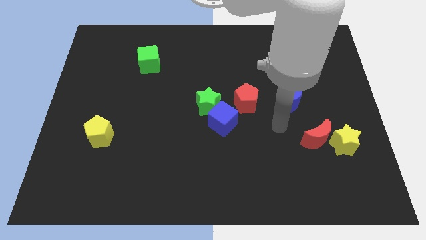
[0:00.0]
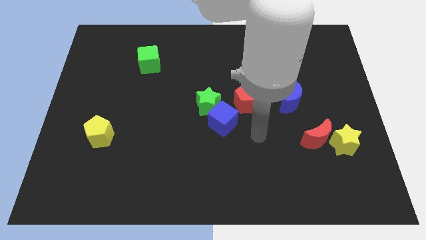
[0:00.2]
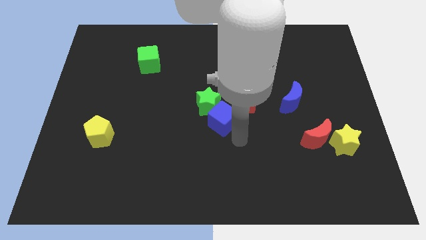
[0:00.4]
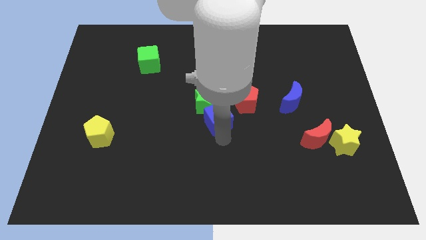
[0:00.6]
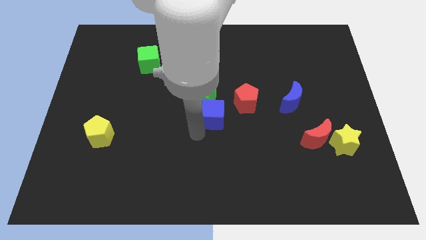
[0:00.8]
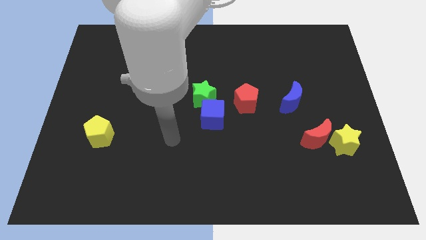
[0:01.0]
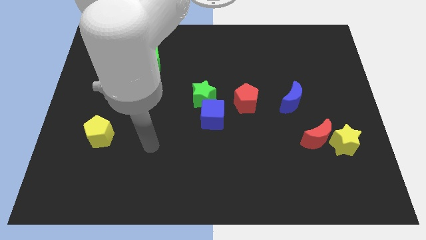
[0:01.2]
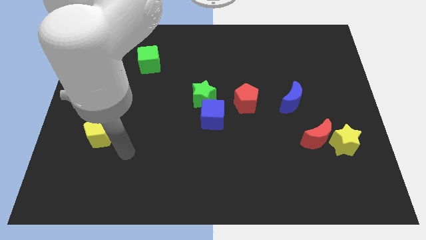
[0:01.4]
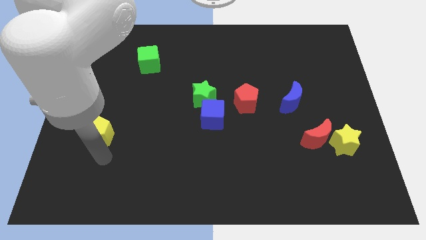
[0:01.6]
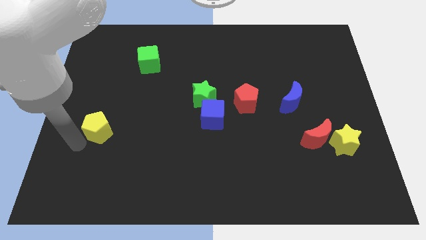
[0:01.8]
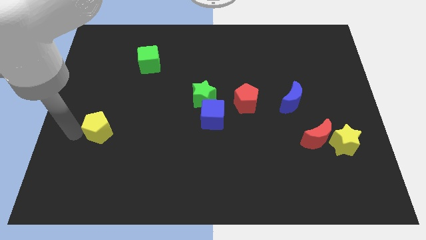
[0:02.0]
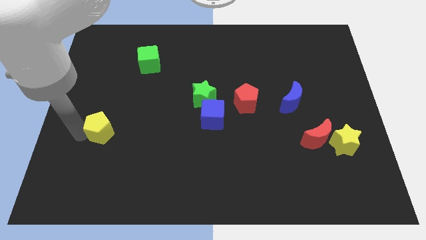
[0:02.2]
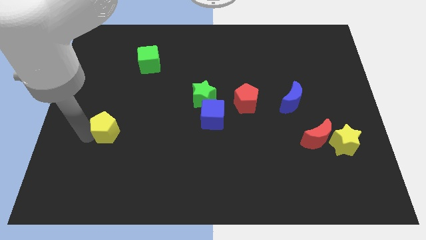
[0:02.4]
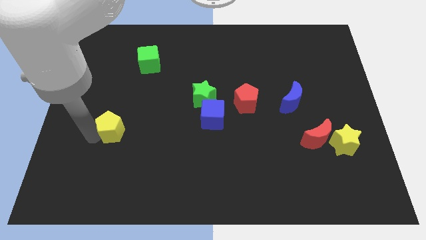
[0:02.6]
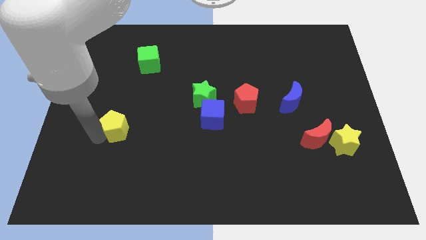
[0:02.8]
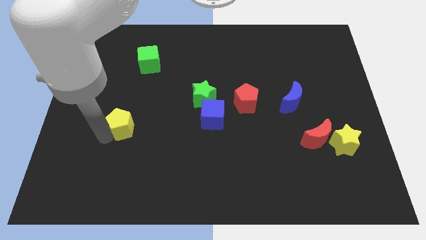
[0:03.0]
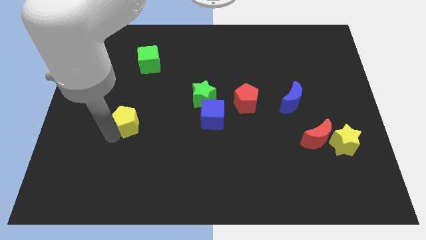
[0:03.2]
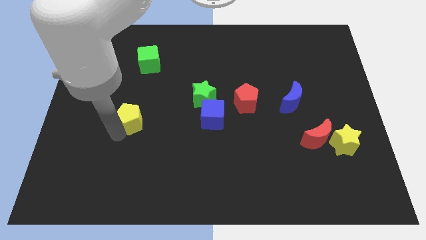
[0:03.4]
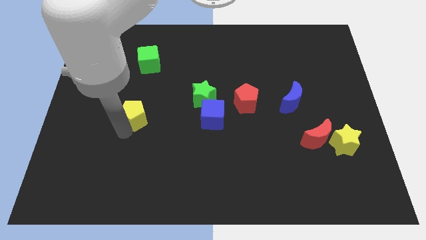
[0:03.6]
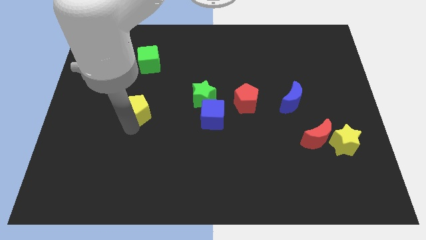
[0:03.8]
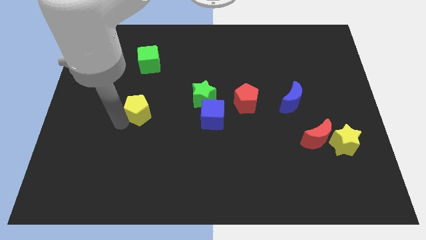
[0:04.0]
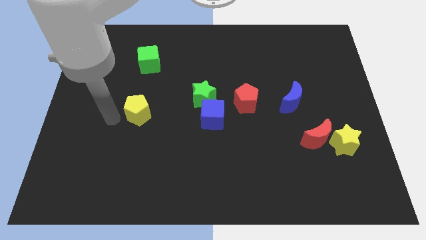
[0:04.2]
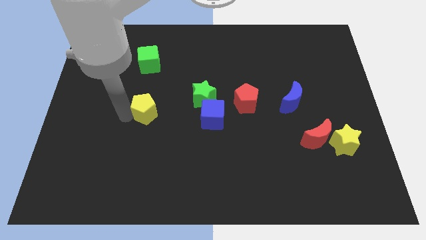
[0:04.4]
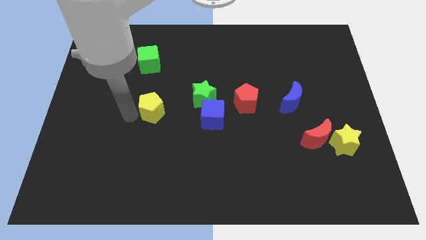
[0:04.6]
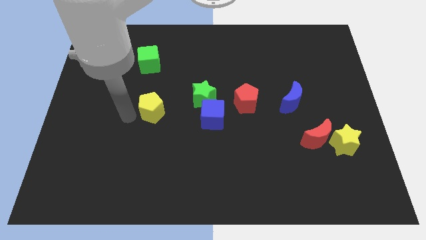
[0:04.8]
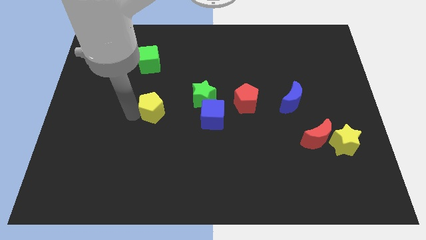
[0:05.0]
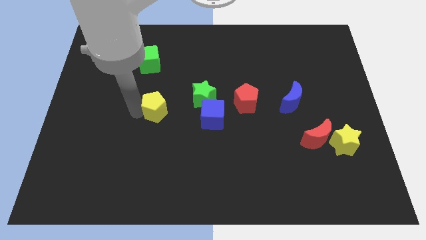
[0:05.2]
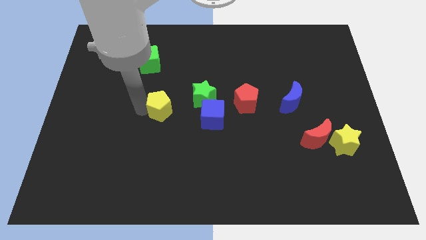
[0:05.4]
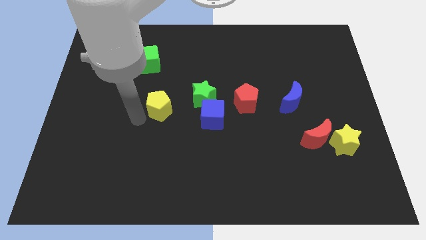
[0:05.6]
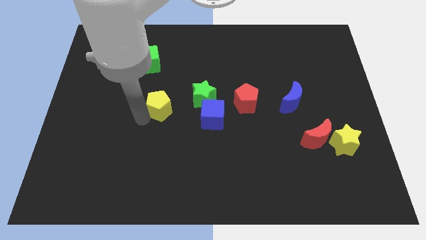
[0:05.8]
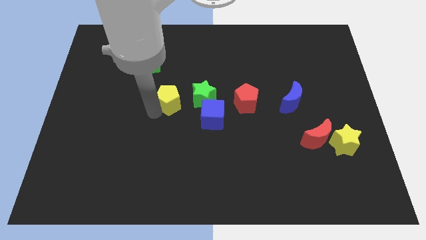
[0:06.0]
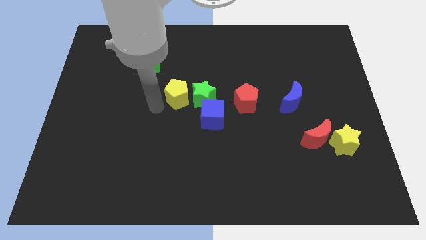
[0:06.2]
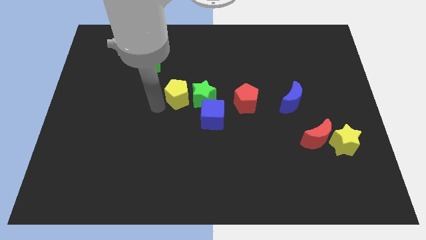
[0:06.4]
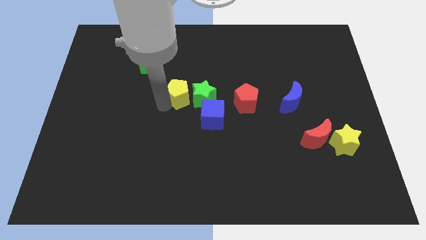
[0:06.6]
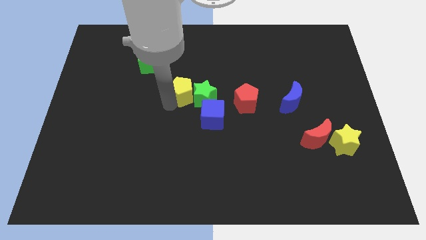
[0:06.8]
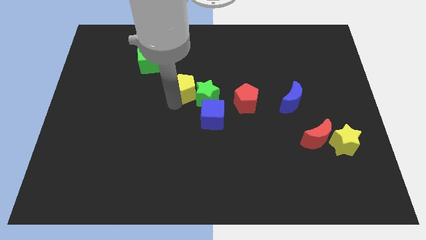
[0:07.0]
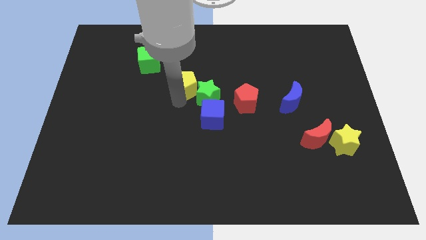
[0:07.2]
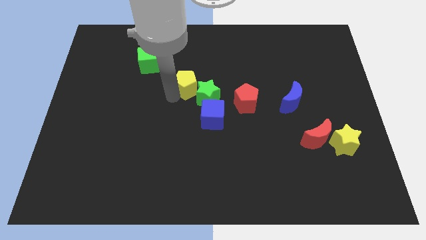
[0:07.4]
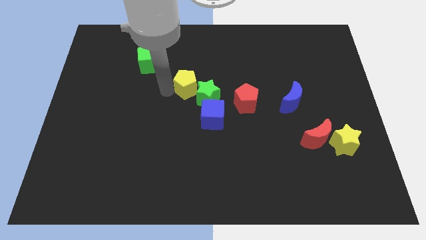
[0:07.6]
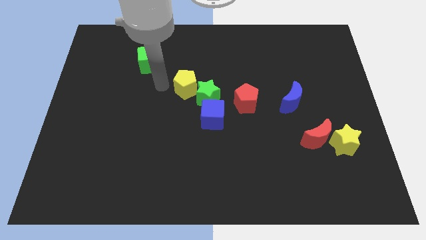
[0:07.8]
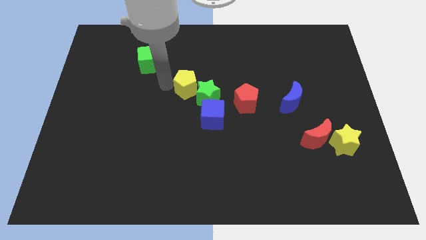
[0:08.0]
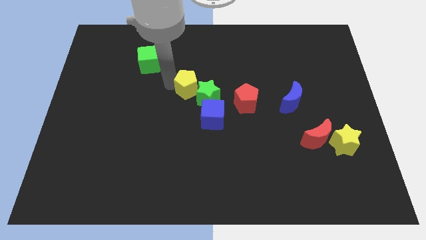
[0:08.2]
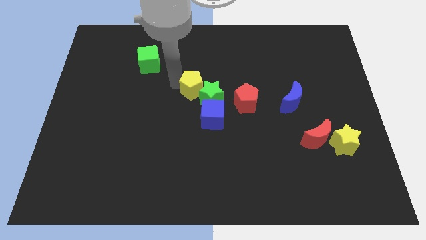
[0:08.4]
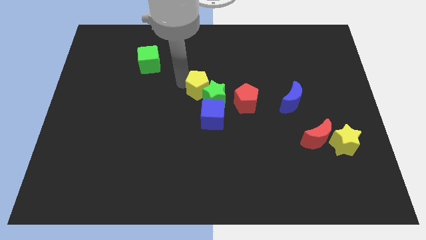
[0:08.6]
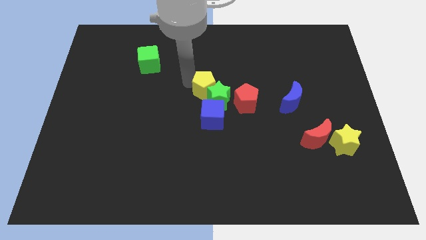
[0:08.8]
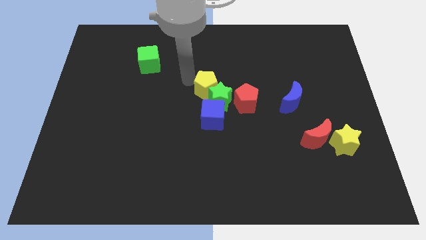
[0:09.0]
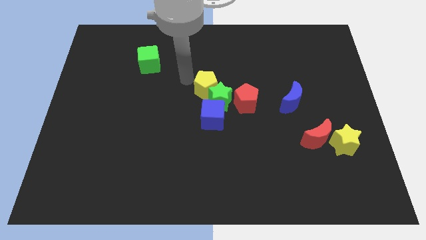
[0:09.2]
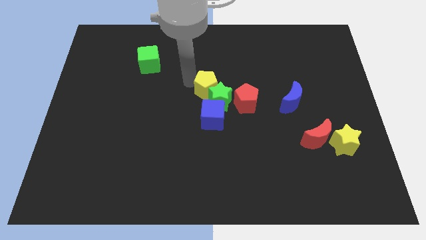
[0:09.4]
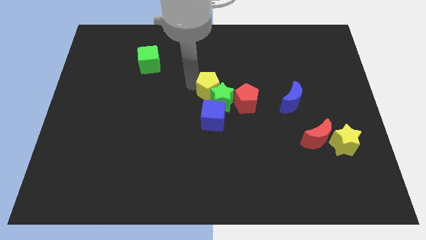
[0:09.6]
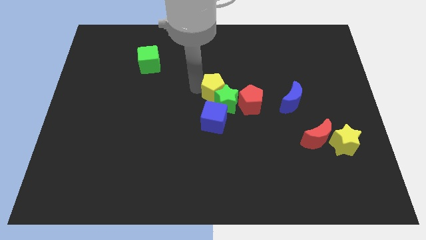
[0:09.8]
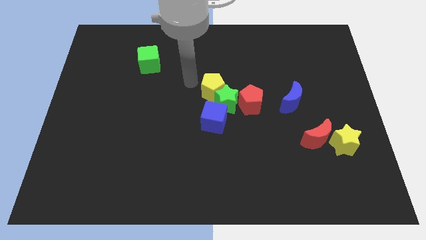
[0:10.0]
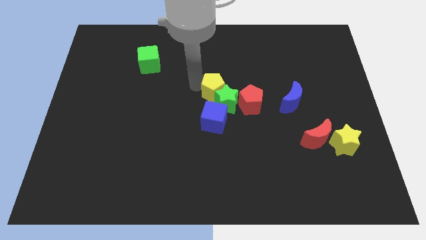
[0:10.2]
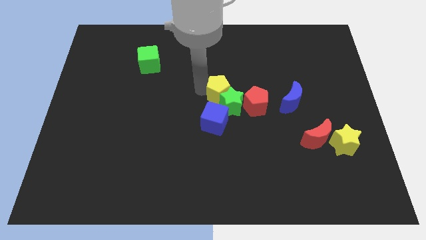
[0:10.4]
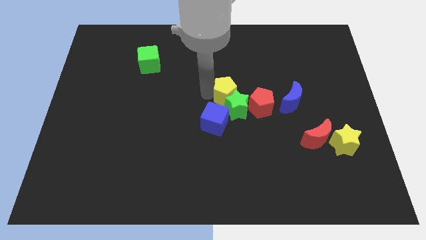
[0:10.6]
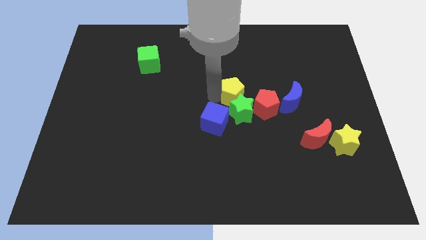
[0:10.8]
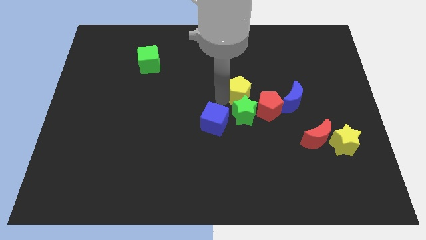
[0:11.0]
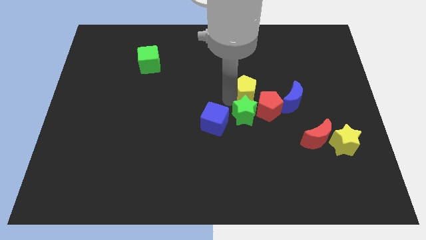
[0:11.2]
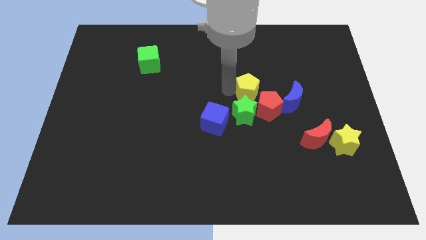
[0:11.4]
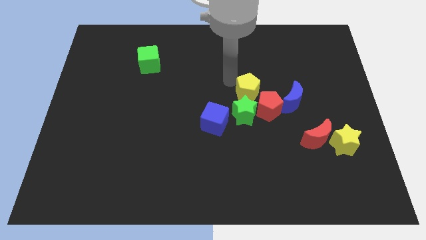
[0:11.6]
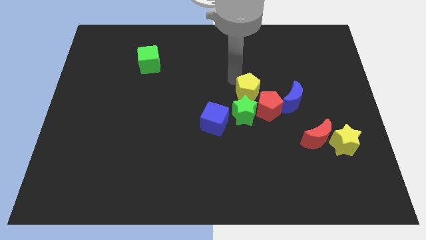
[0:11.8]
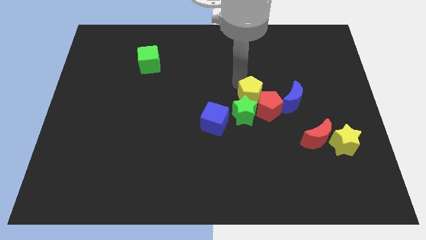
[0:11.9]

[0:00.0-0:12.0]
move the yellow pentagon next to the red pentagon
